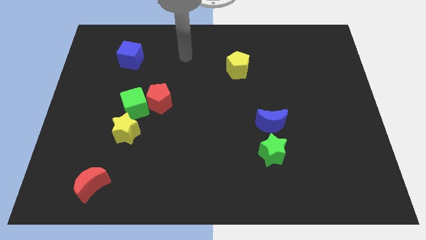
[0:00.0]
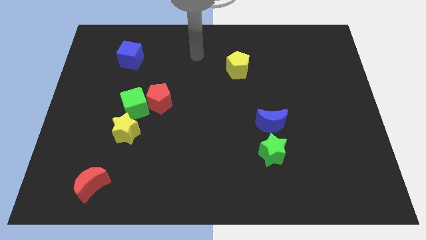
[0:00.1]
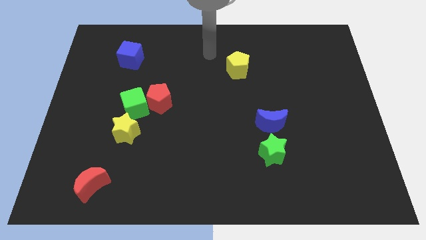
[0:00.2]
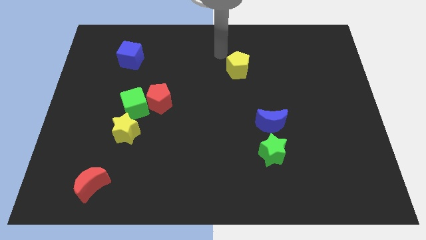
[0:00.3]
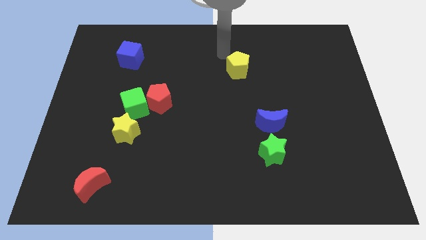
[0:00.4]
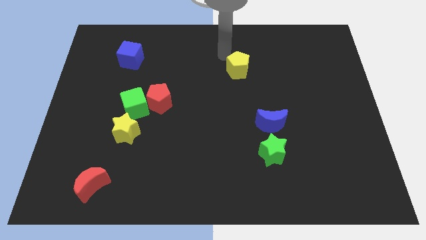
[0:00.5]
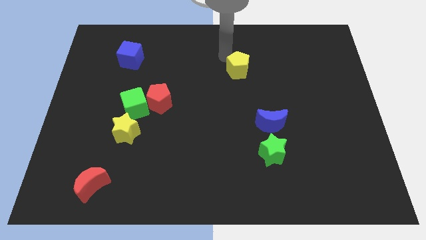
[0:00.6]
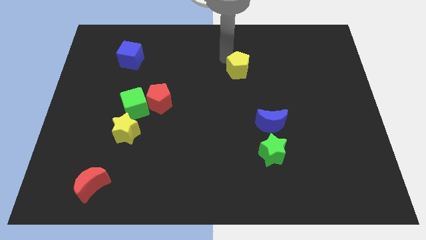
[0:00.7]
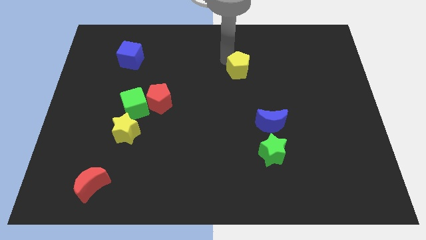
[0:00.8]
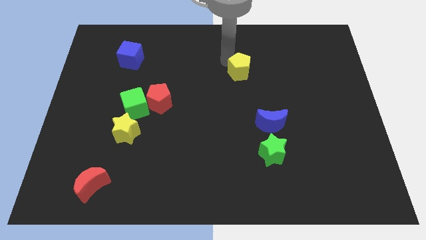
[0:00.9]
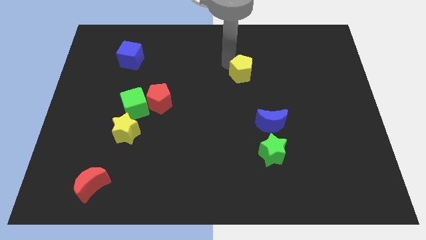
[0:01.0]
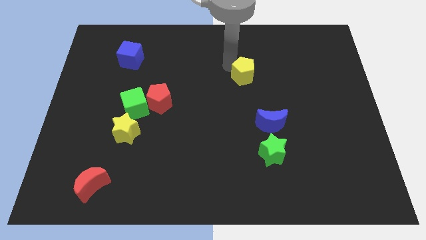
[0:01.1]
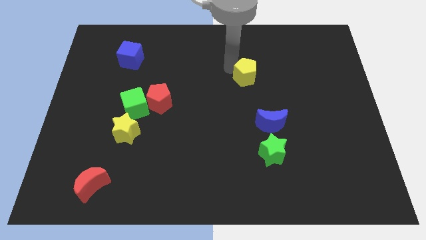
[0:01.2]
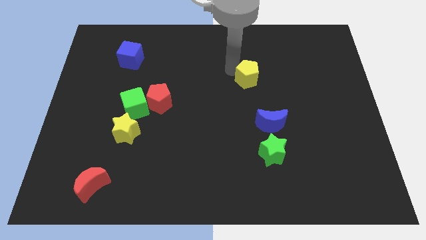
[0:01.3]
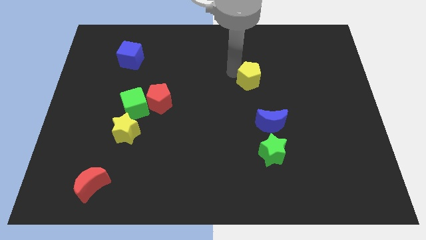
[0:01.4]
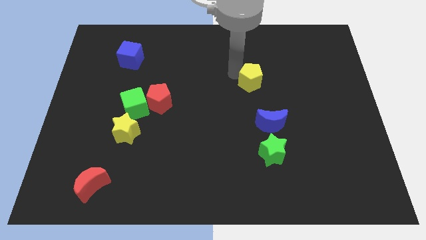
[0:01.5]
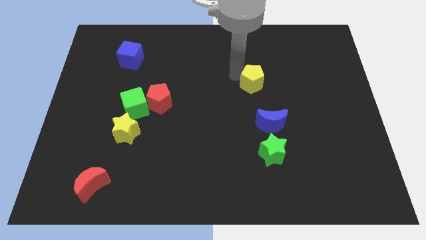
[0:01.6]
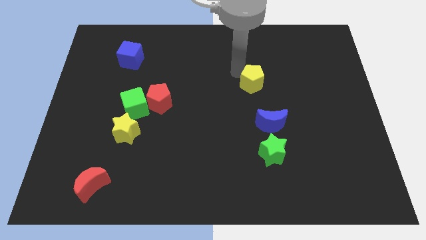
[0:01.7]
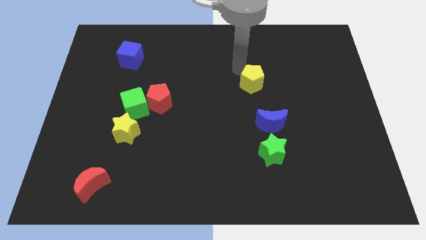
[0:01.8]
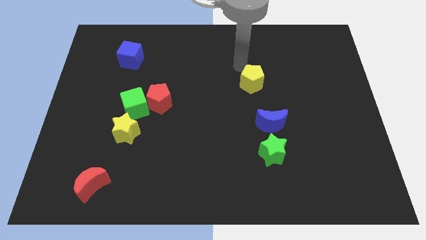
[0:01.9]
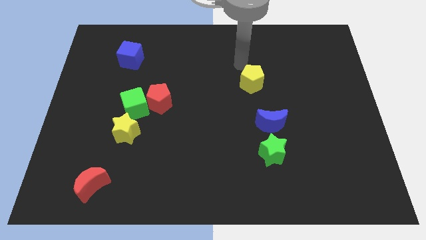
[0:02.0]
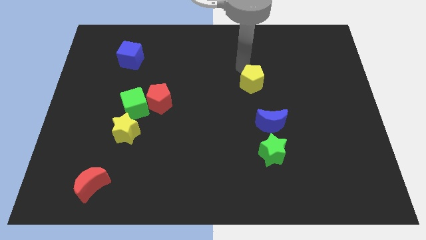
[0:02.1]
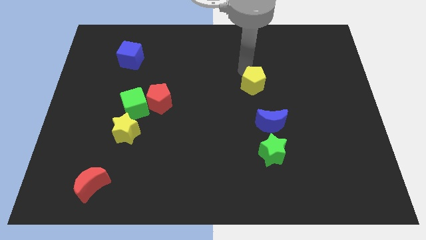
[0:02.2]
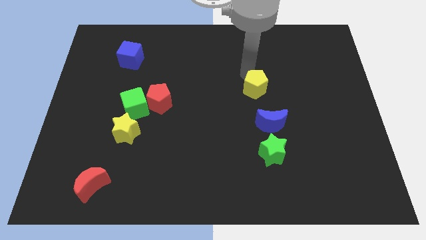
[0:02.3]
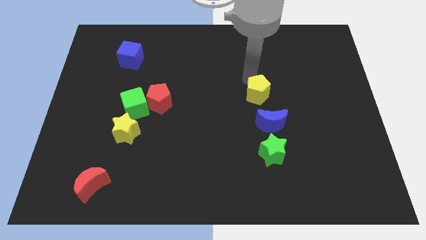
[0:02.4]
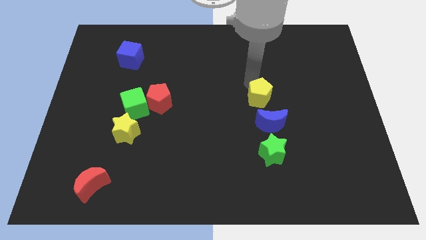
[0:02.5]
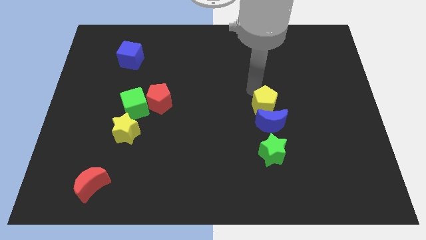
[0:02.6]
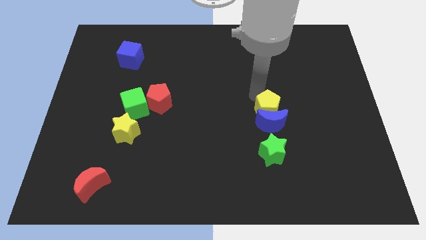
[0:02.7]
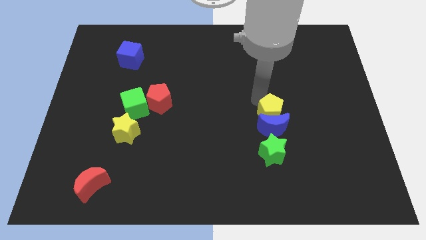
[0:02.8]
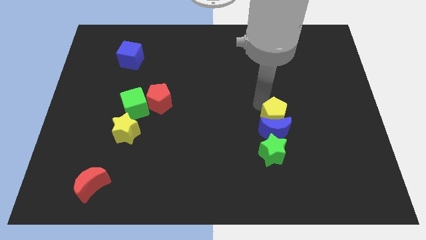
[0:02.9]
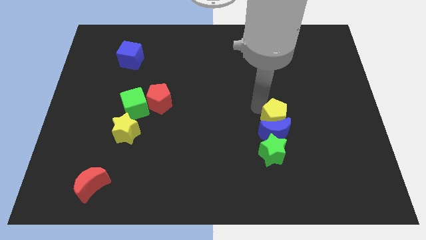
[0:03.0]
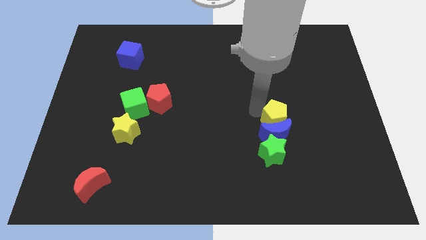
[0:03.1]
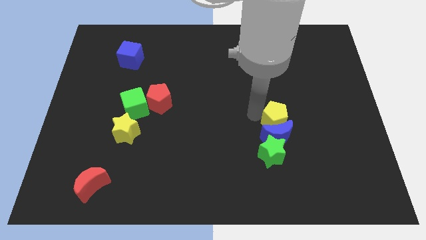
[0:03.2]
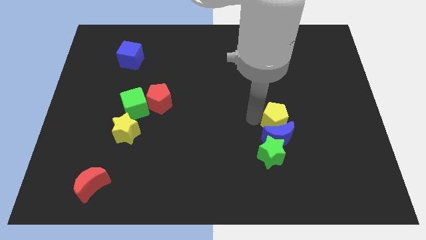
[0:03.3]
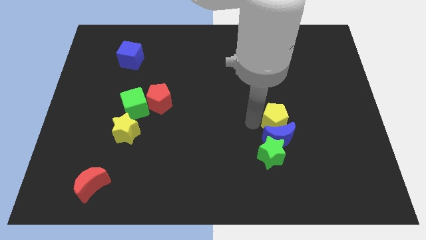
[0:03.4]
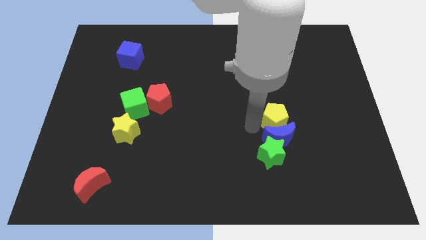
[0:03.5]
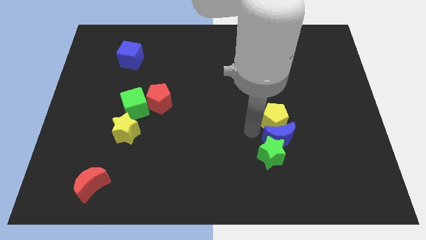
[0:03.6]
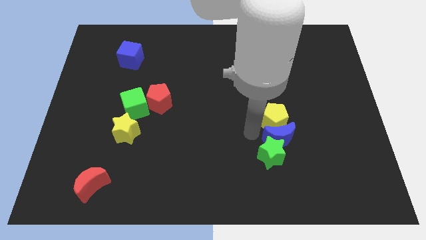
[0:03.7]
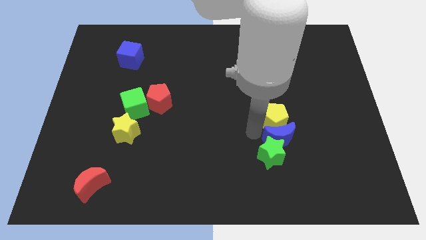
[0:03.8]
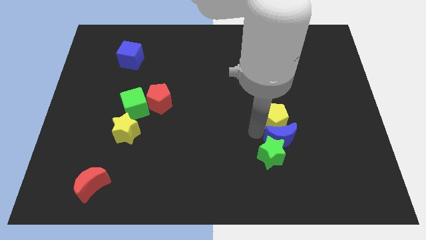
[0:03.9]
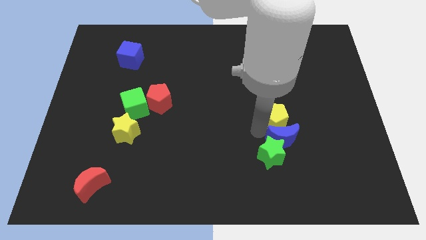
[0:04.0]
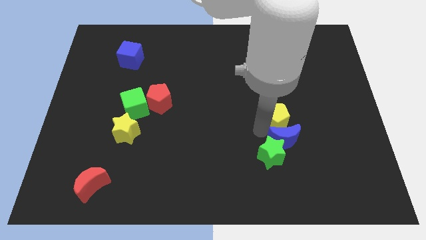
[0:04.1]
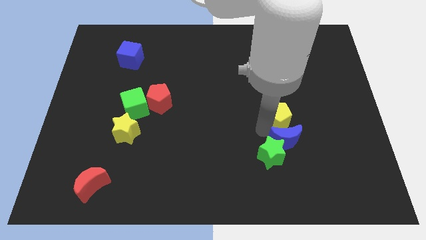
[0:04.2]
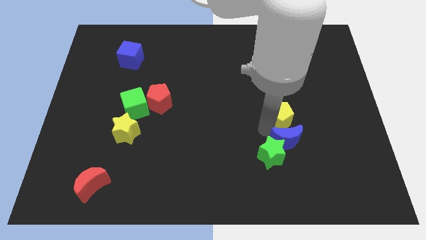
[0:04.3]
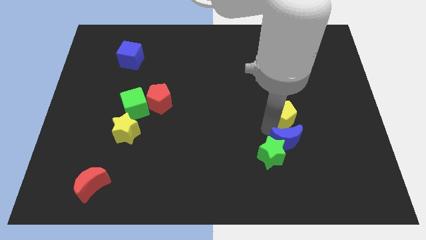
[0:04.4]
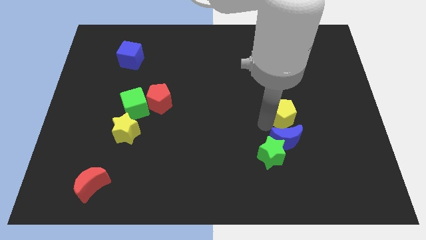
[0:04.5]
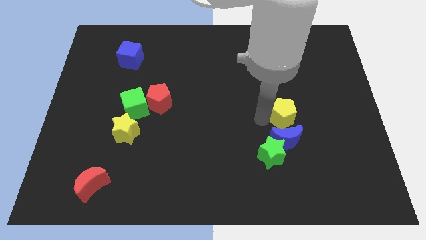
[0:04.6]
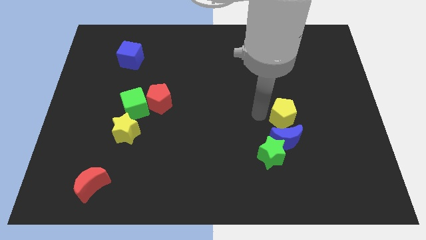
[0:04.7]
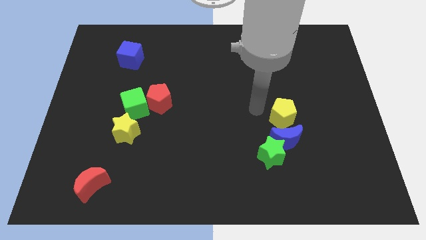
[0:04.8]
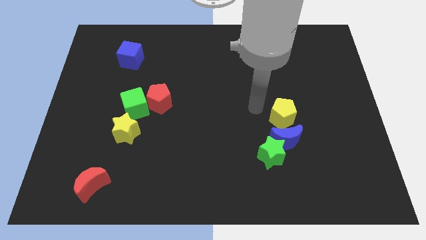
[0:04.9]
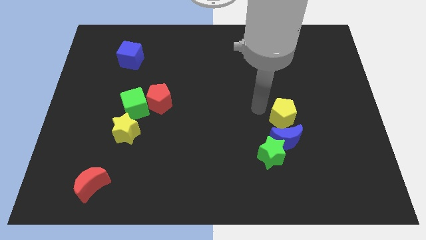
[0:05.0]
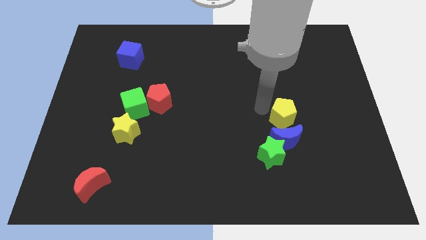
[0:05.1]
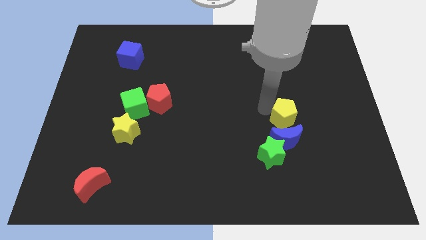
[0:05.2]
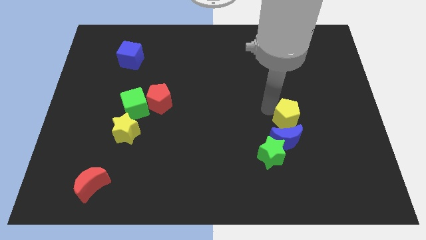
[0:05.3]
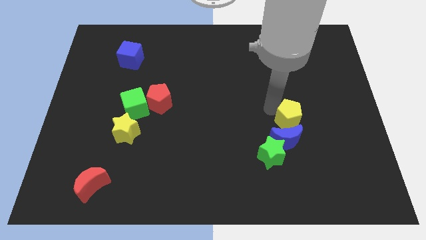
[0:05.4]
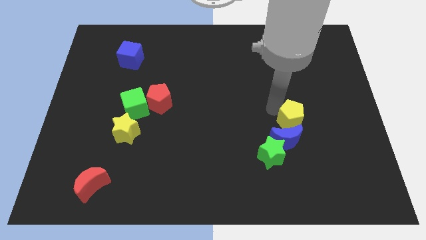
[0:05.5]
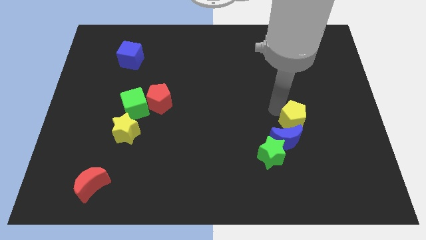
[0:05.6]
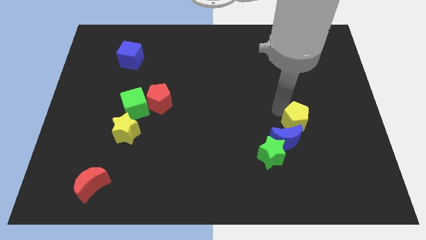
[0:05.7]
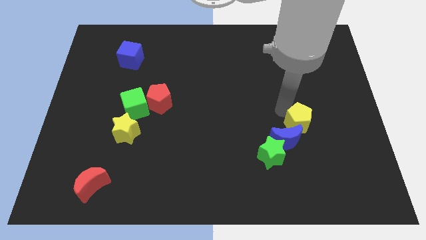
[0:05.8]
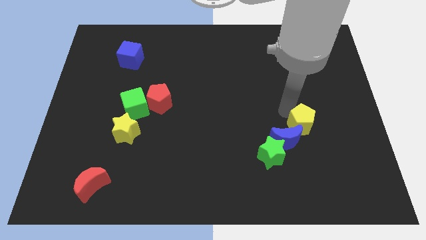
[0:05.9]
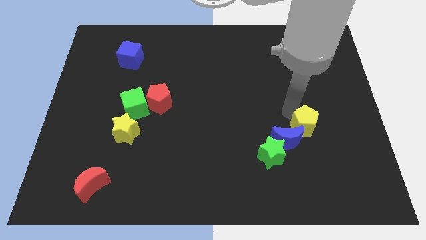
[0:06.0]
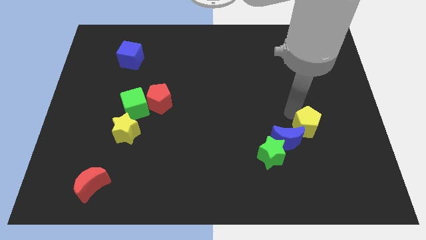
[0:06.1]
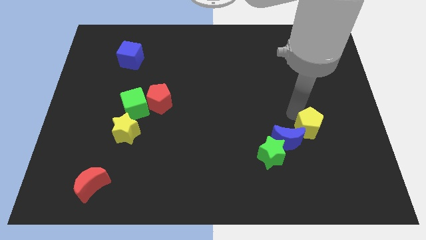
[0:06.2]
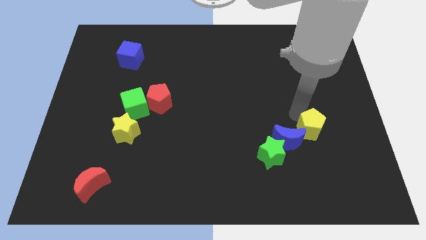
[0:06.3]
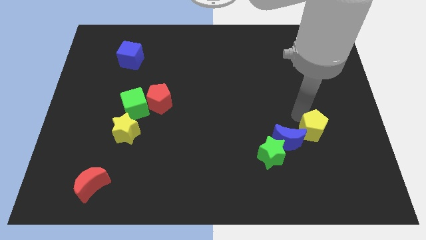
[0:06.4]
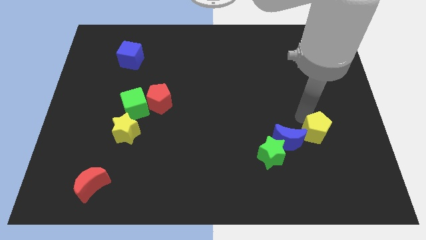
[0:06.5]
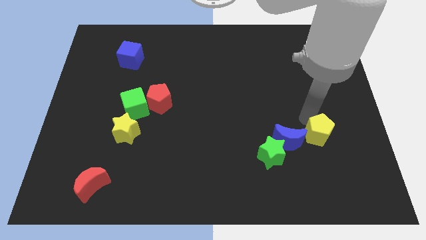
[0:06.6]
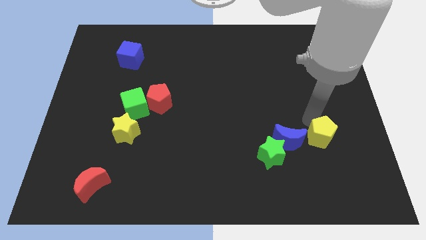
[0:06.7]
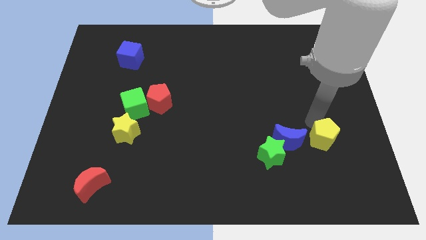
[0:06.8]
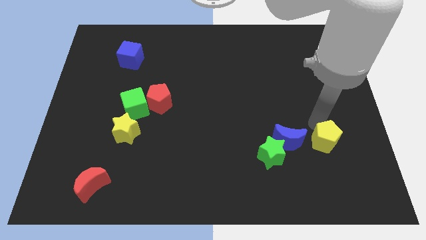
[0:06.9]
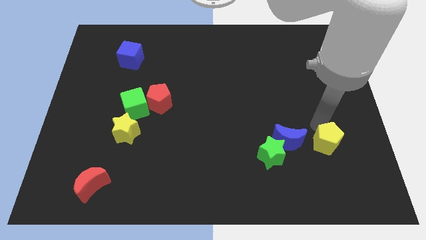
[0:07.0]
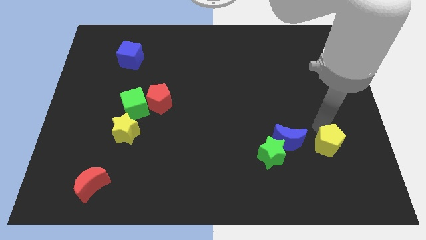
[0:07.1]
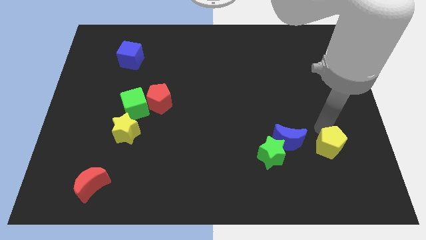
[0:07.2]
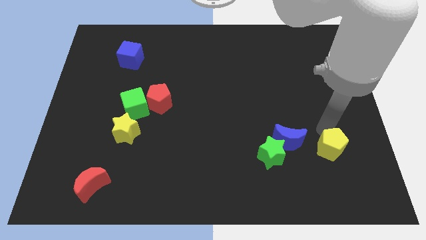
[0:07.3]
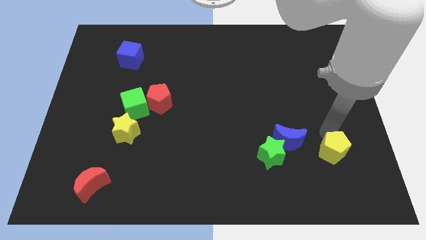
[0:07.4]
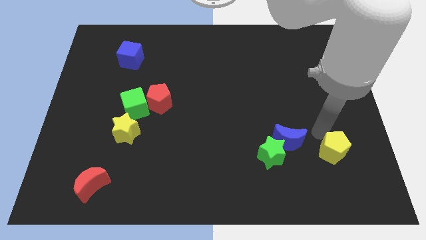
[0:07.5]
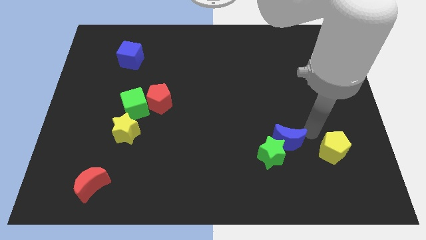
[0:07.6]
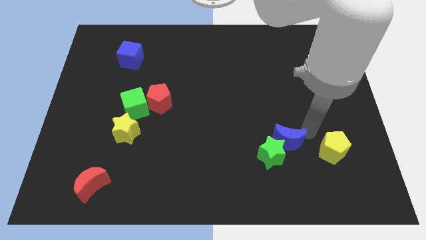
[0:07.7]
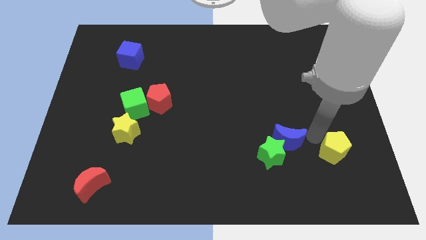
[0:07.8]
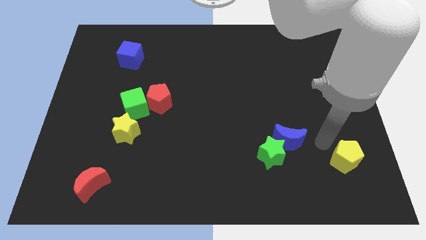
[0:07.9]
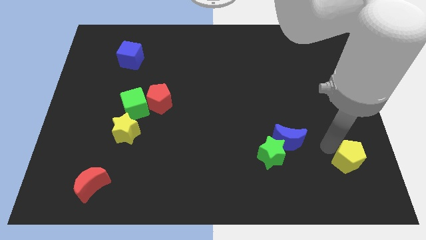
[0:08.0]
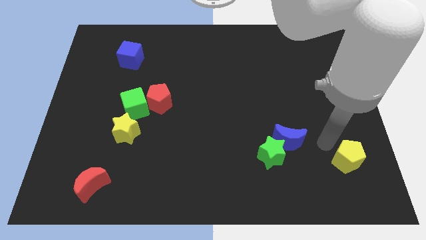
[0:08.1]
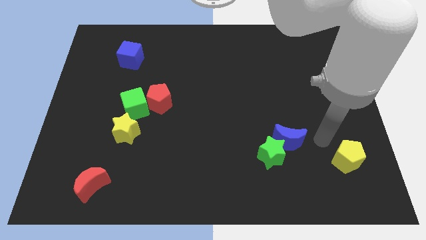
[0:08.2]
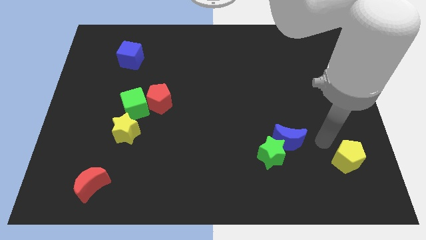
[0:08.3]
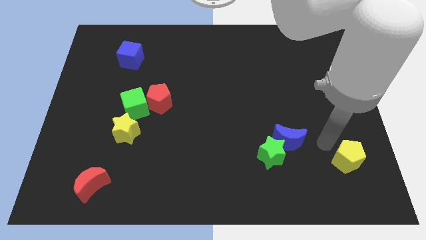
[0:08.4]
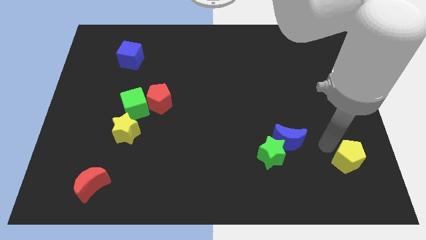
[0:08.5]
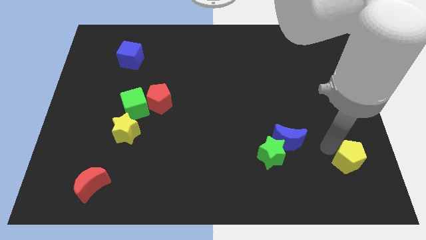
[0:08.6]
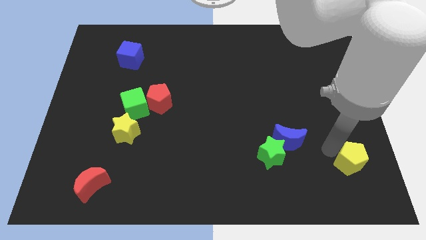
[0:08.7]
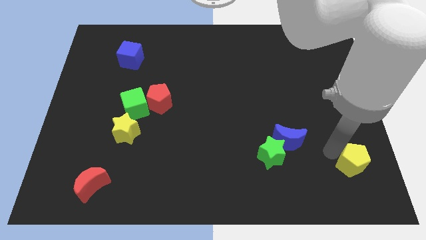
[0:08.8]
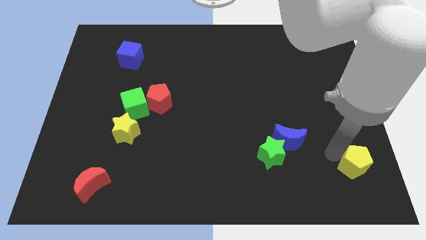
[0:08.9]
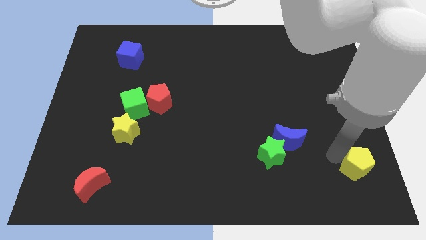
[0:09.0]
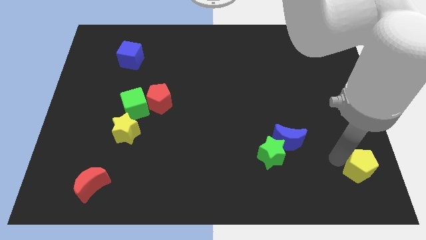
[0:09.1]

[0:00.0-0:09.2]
slide the yellow pentagon to the bottom right
